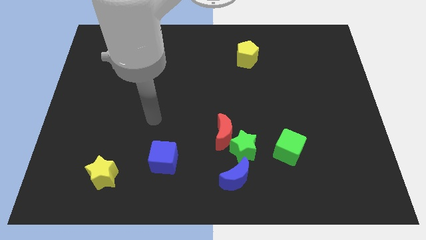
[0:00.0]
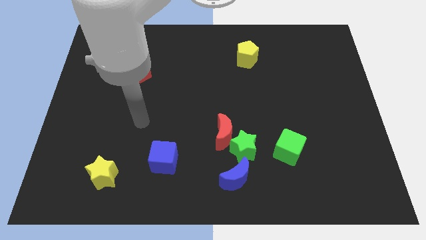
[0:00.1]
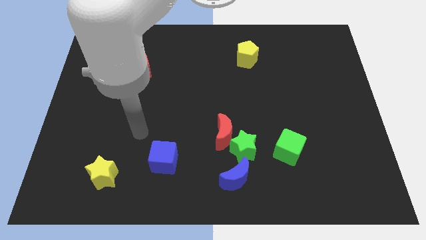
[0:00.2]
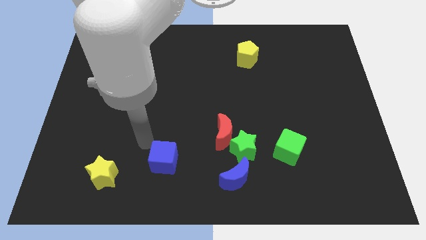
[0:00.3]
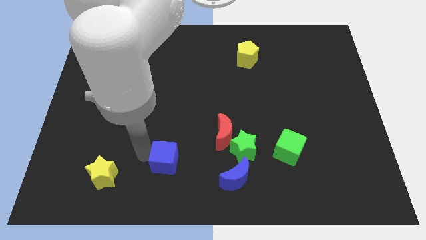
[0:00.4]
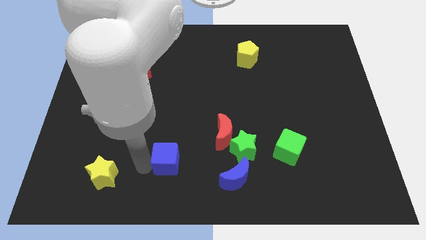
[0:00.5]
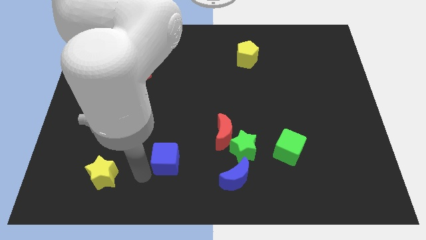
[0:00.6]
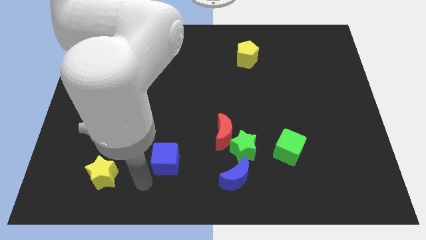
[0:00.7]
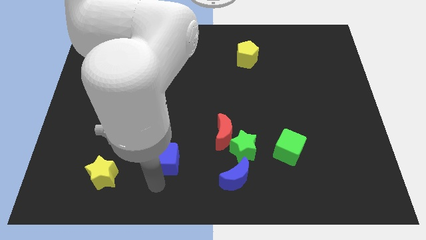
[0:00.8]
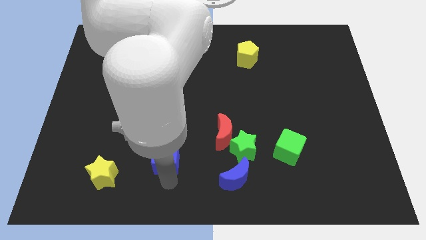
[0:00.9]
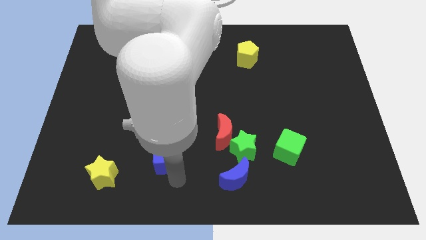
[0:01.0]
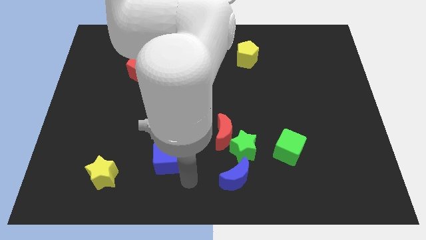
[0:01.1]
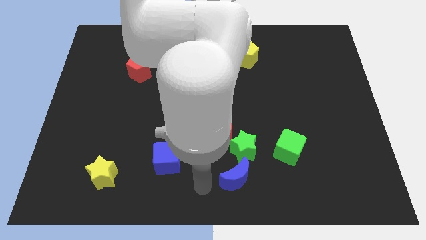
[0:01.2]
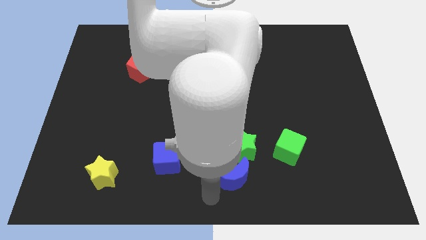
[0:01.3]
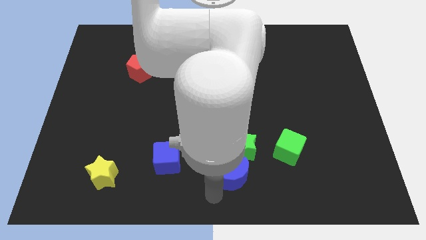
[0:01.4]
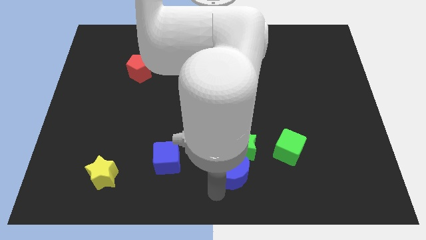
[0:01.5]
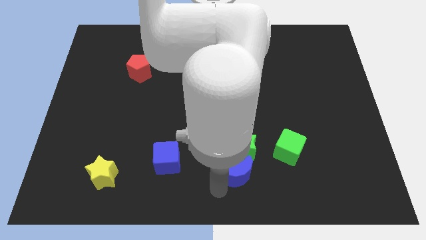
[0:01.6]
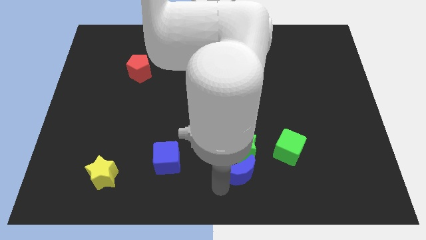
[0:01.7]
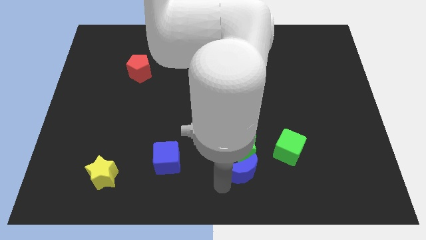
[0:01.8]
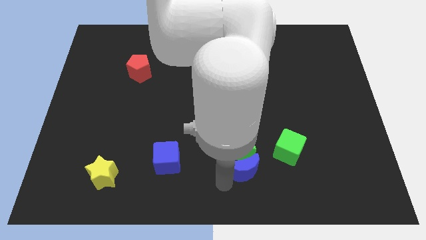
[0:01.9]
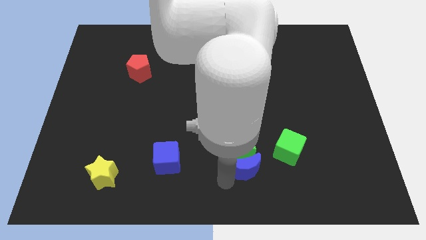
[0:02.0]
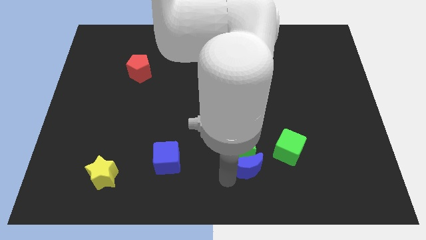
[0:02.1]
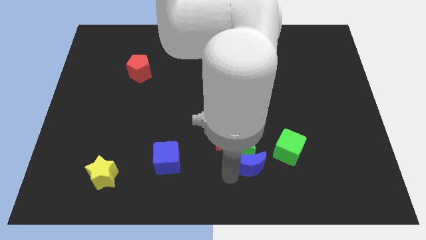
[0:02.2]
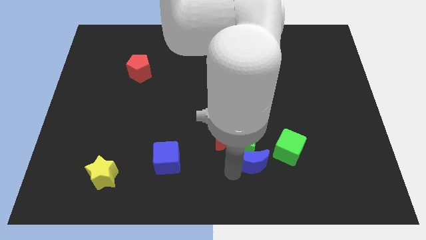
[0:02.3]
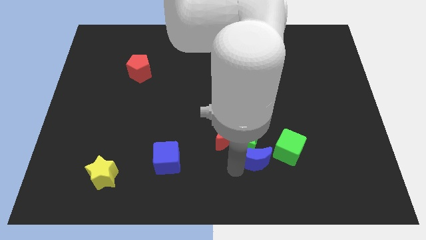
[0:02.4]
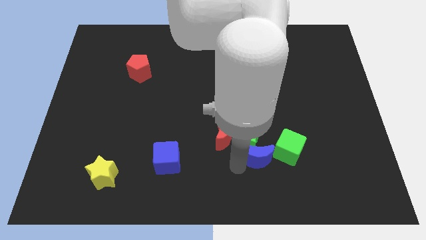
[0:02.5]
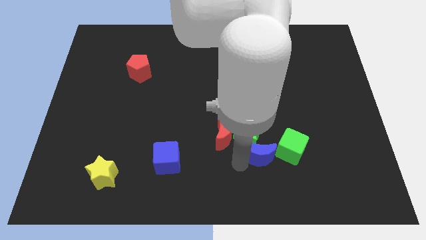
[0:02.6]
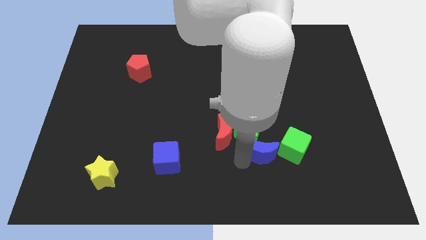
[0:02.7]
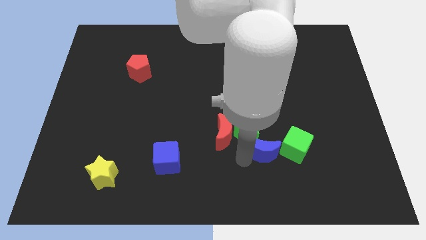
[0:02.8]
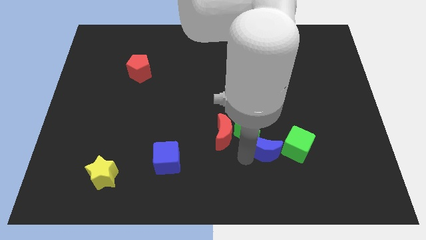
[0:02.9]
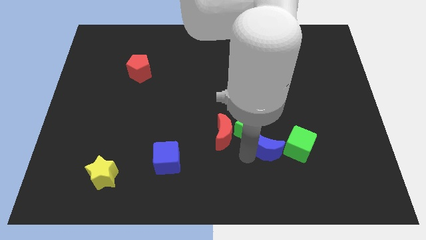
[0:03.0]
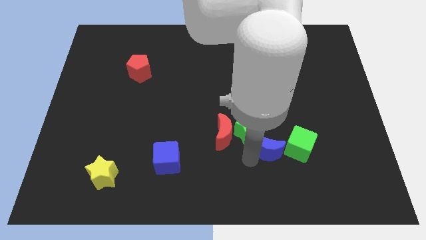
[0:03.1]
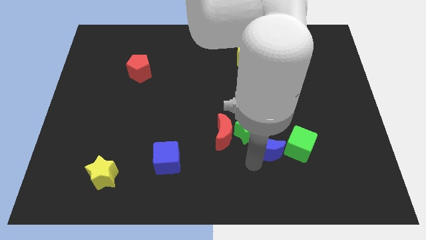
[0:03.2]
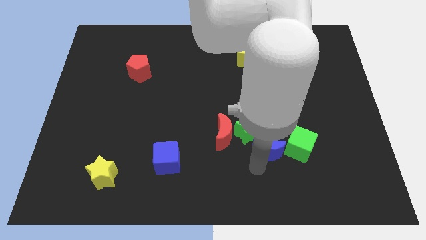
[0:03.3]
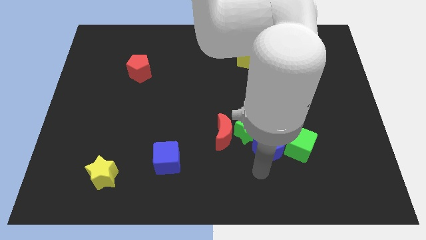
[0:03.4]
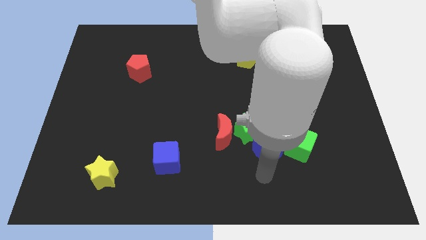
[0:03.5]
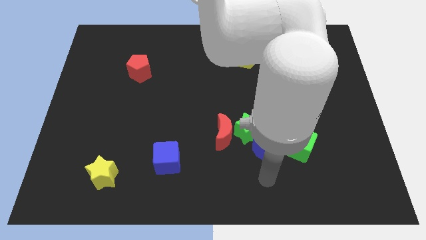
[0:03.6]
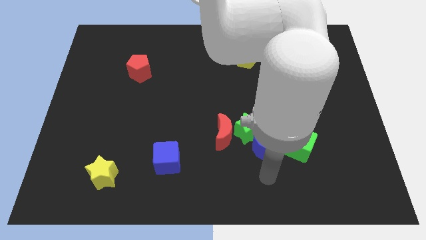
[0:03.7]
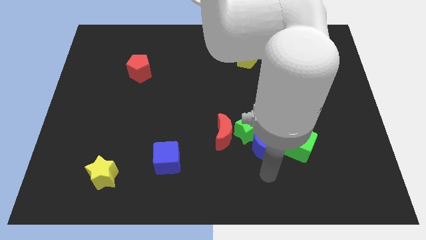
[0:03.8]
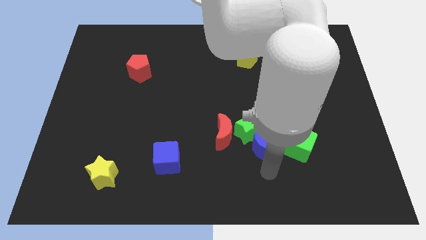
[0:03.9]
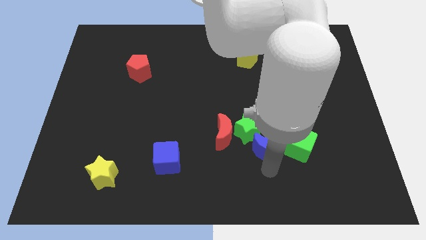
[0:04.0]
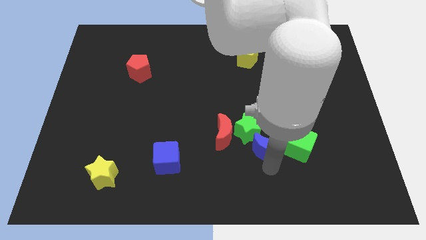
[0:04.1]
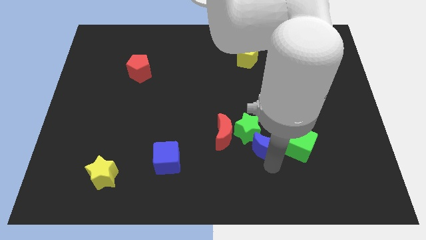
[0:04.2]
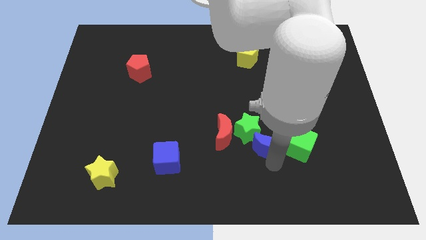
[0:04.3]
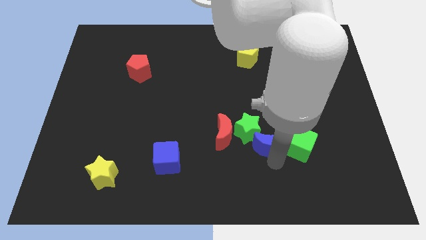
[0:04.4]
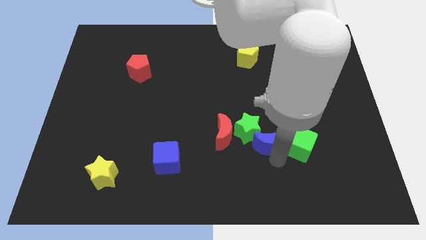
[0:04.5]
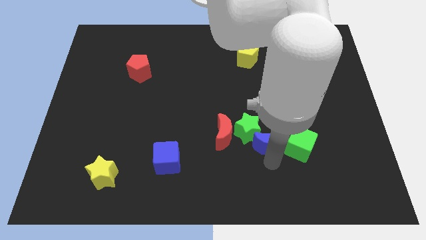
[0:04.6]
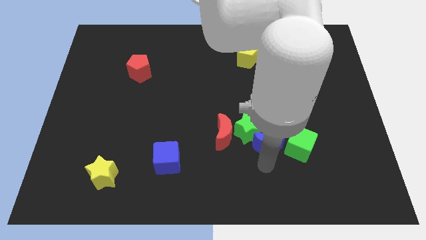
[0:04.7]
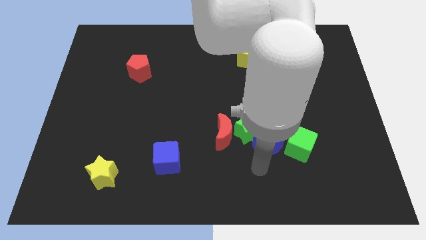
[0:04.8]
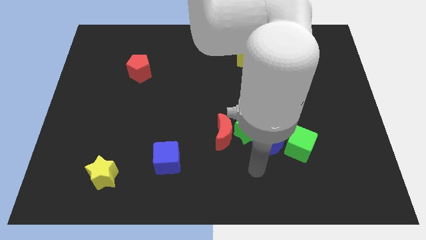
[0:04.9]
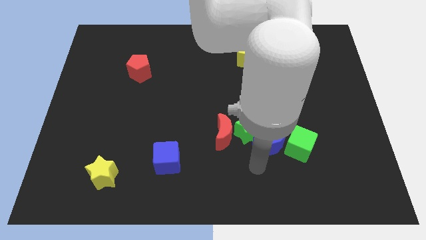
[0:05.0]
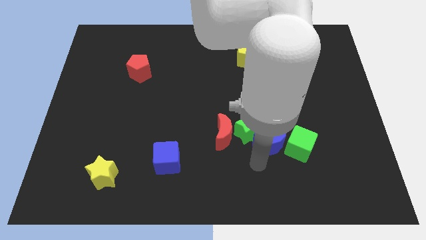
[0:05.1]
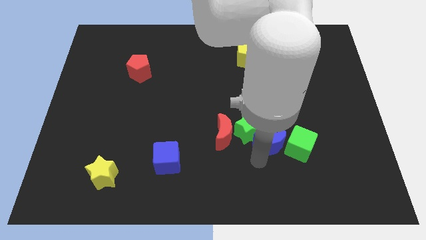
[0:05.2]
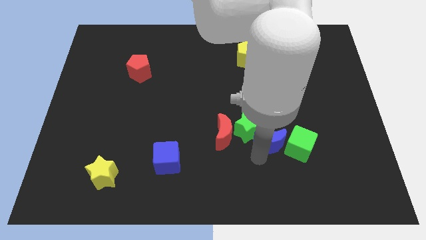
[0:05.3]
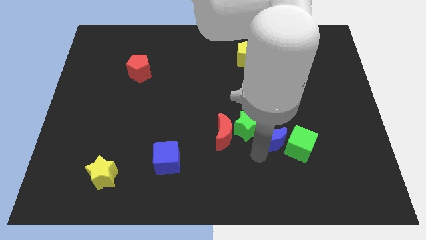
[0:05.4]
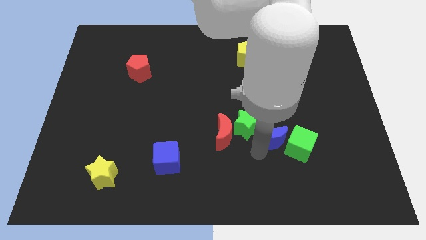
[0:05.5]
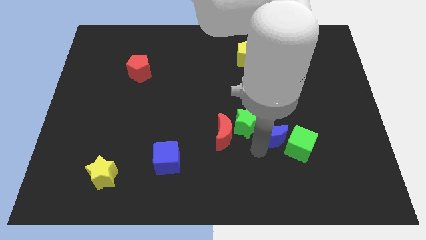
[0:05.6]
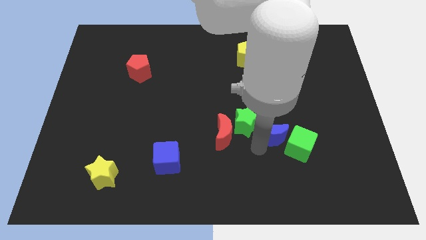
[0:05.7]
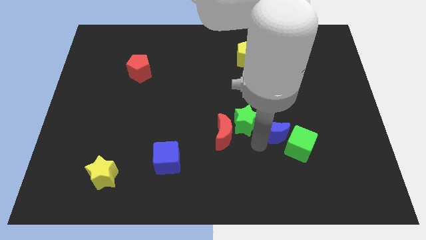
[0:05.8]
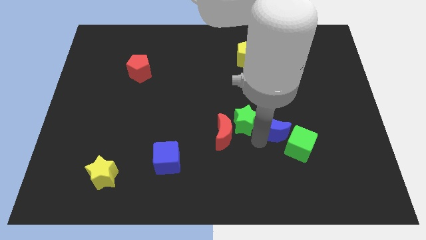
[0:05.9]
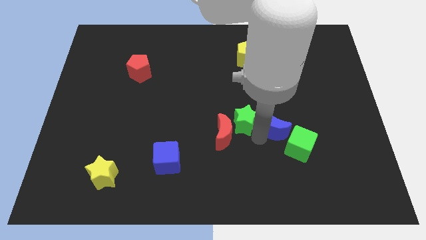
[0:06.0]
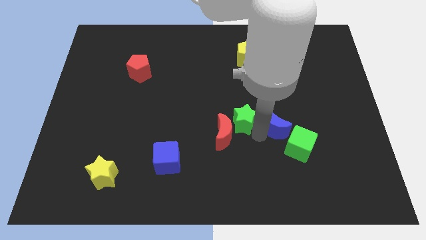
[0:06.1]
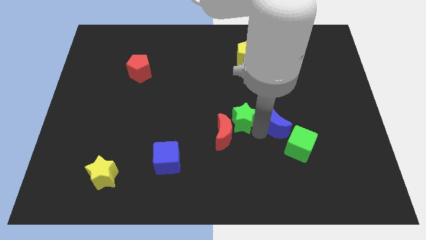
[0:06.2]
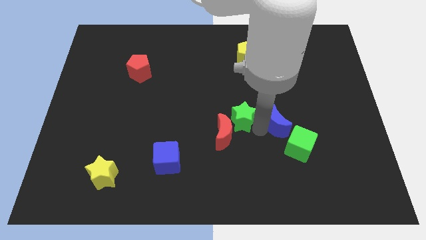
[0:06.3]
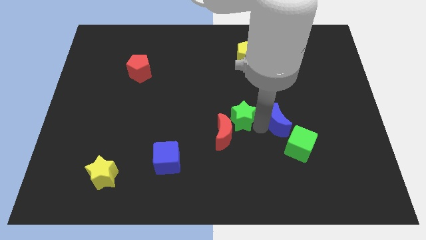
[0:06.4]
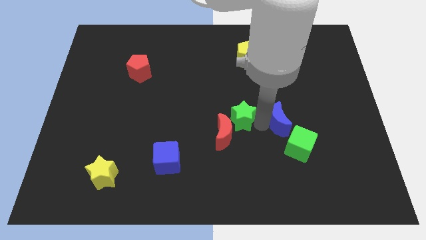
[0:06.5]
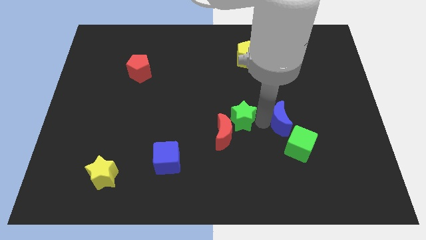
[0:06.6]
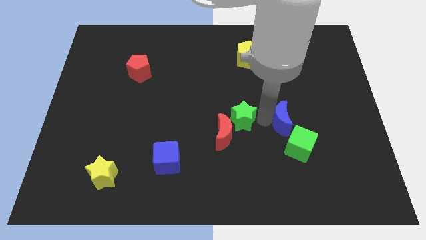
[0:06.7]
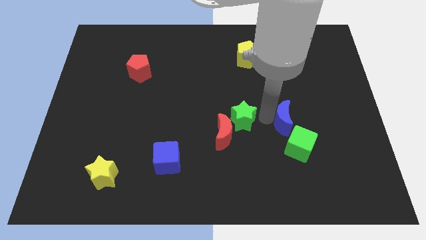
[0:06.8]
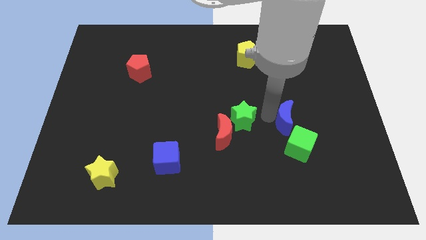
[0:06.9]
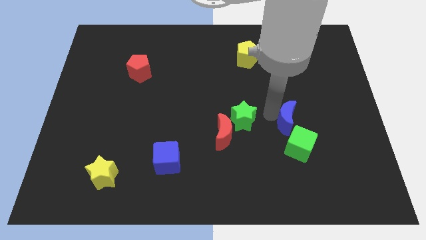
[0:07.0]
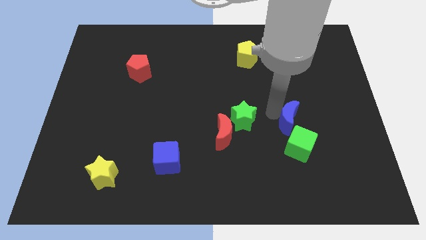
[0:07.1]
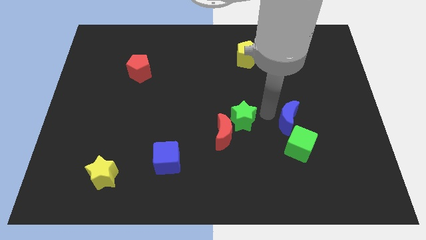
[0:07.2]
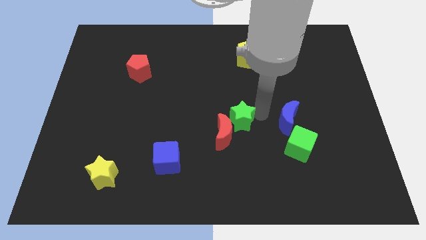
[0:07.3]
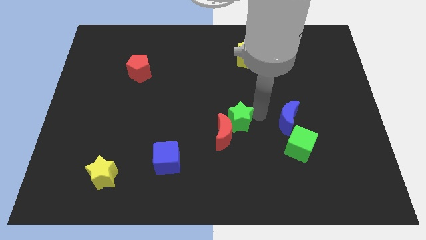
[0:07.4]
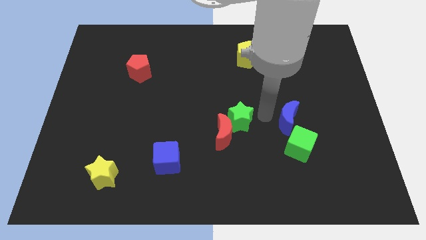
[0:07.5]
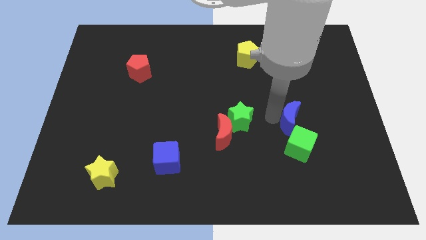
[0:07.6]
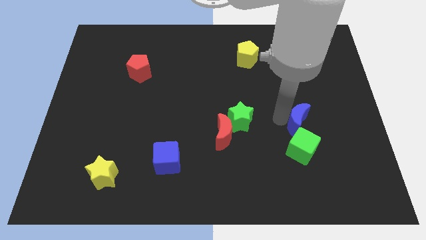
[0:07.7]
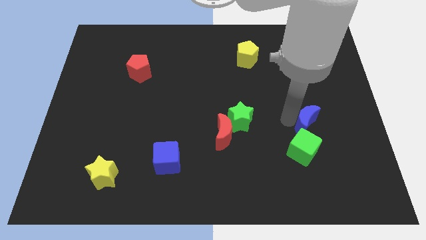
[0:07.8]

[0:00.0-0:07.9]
push the blue moon to the top right of the green cube
